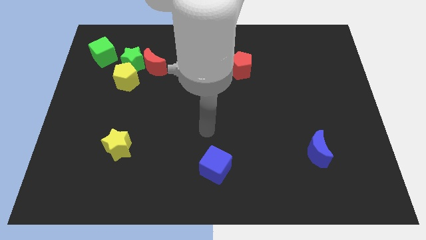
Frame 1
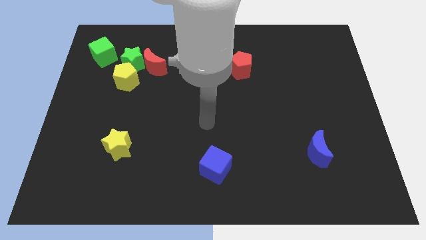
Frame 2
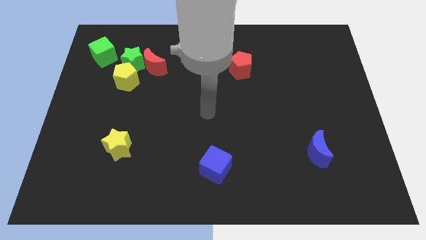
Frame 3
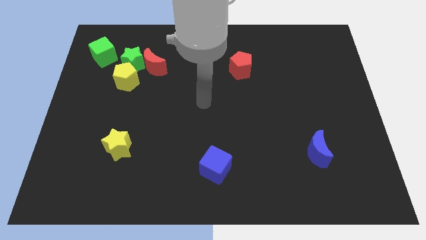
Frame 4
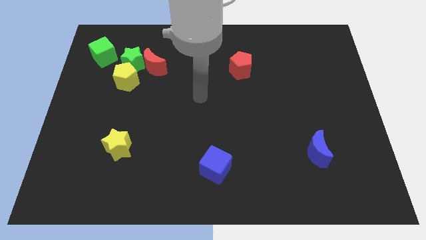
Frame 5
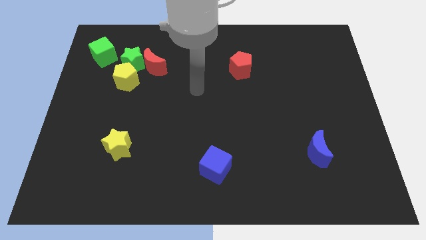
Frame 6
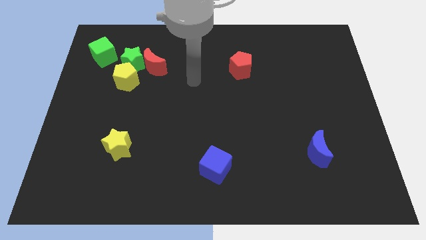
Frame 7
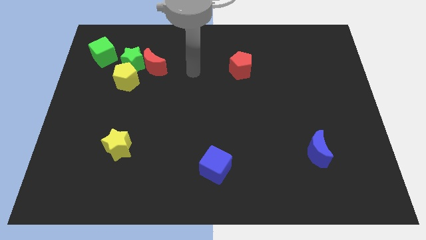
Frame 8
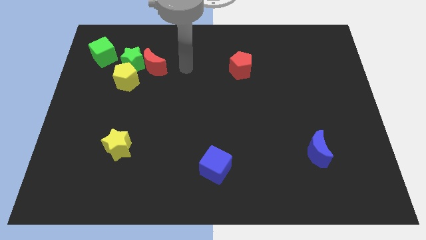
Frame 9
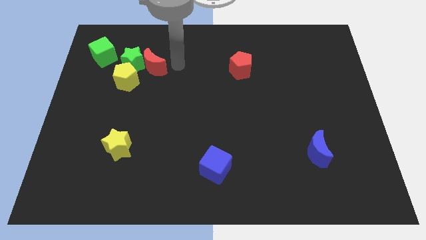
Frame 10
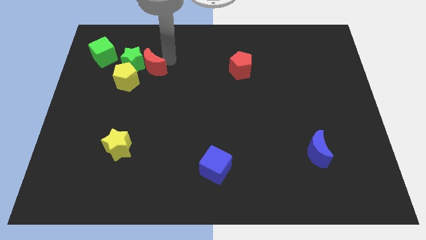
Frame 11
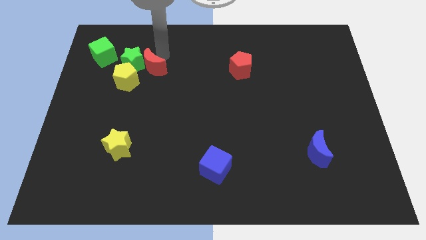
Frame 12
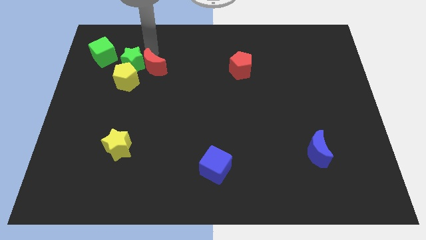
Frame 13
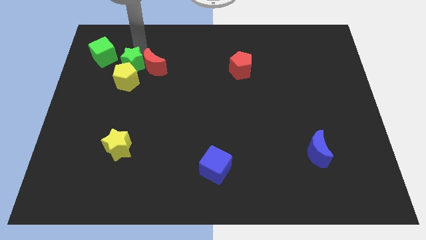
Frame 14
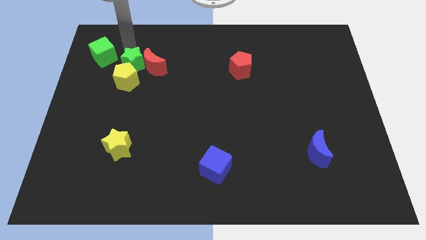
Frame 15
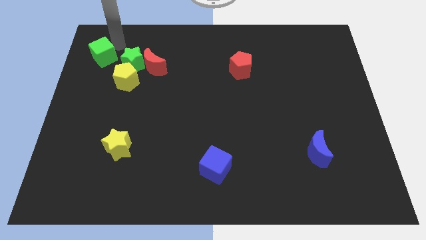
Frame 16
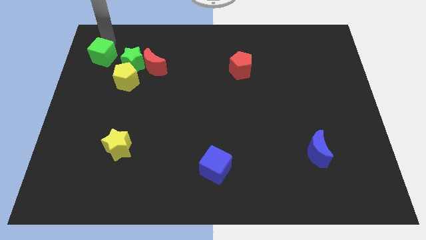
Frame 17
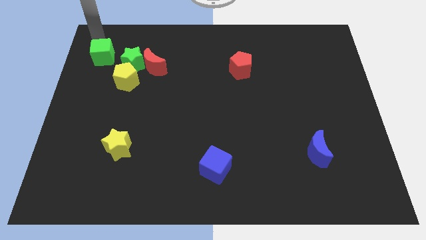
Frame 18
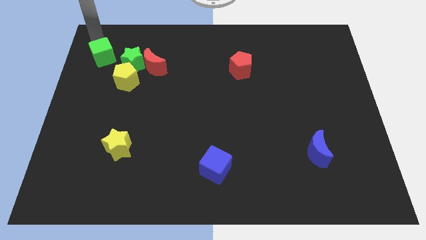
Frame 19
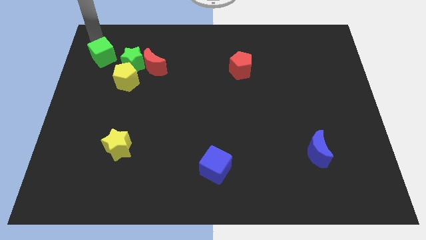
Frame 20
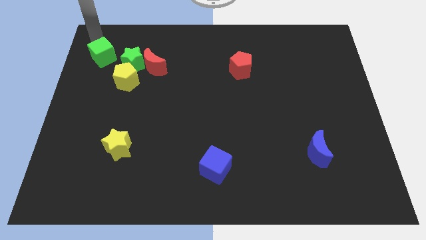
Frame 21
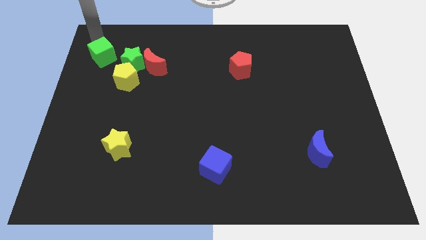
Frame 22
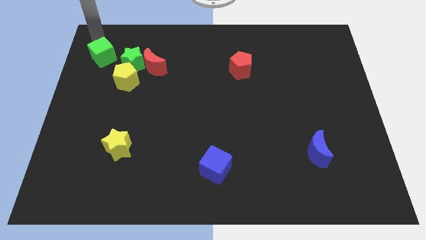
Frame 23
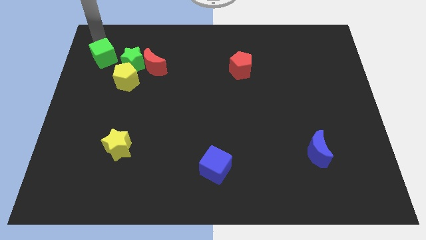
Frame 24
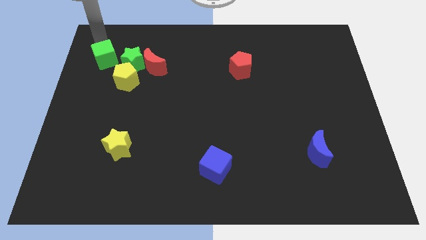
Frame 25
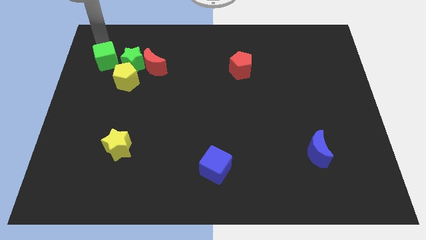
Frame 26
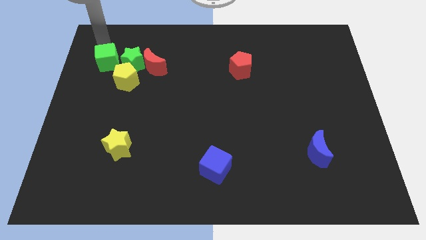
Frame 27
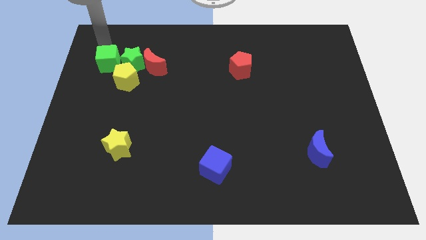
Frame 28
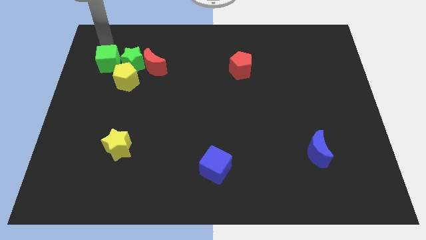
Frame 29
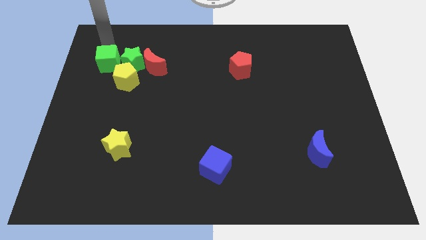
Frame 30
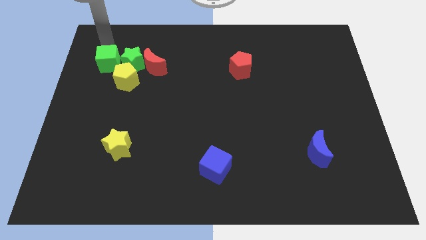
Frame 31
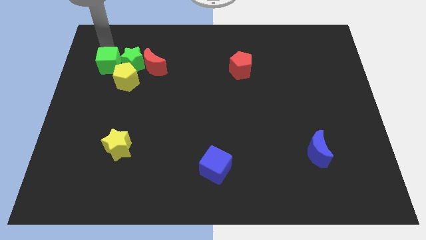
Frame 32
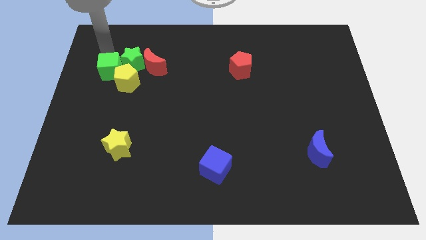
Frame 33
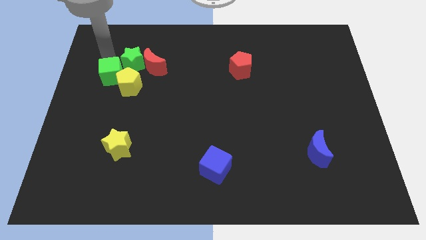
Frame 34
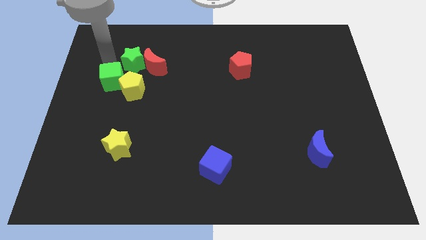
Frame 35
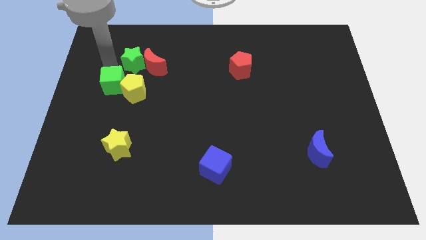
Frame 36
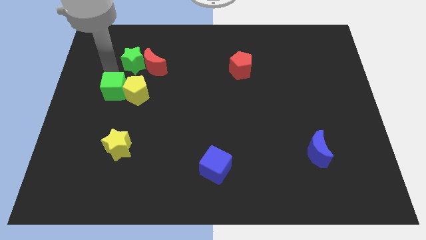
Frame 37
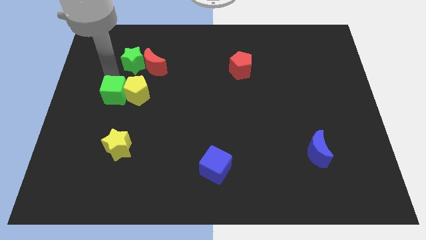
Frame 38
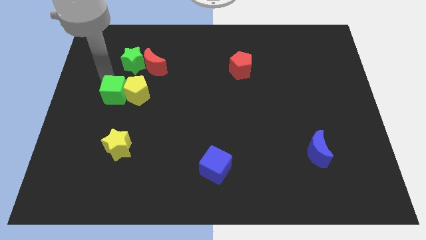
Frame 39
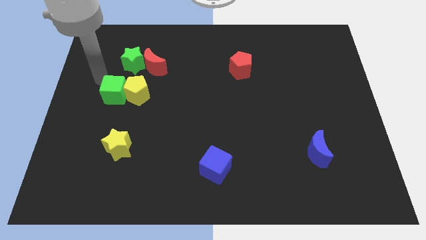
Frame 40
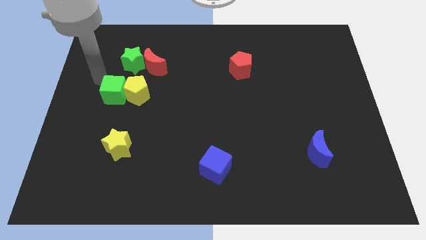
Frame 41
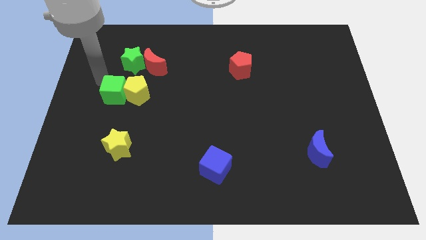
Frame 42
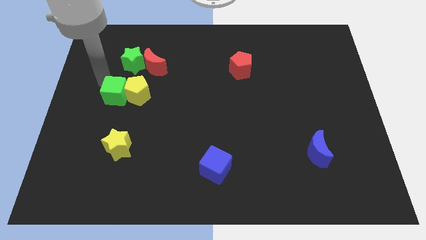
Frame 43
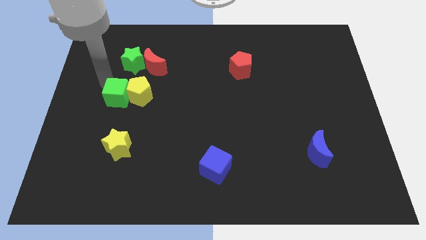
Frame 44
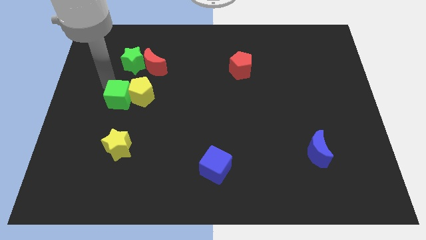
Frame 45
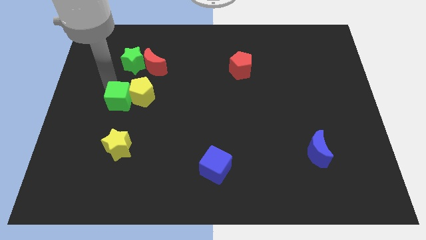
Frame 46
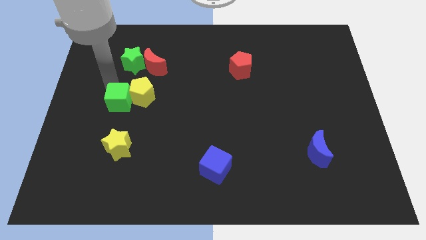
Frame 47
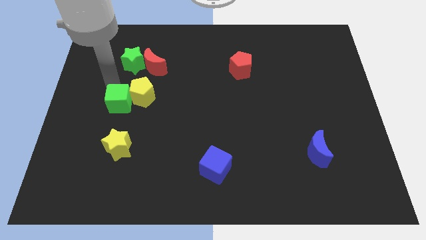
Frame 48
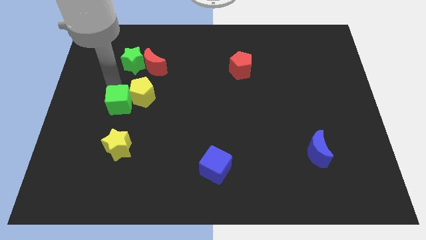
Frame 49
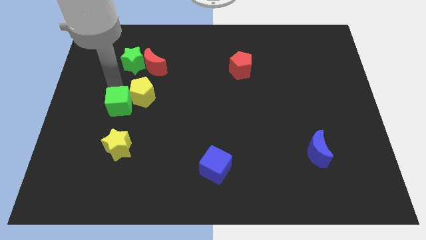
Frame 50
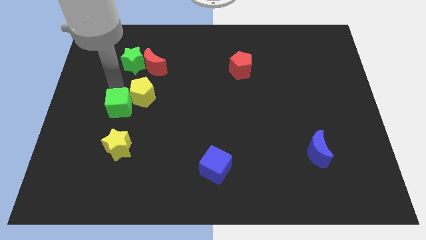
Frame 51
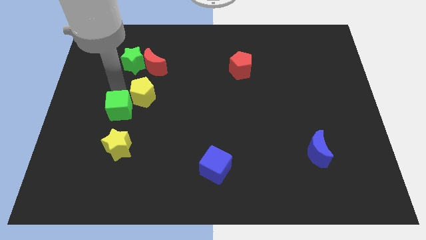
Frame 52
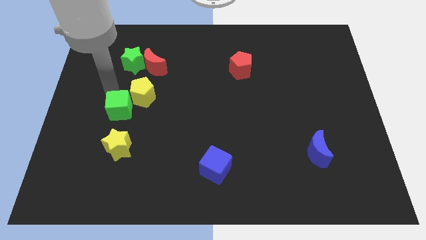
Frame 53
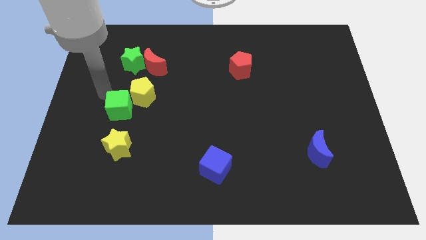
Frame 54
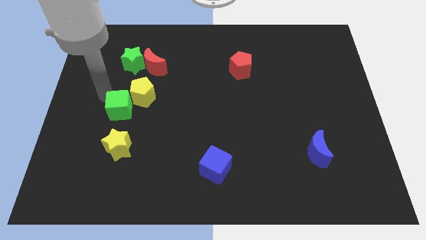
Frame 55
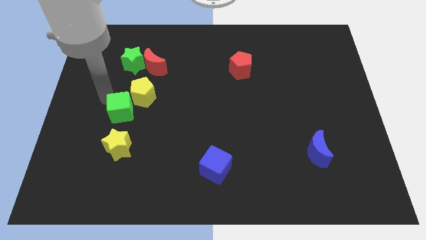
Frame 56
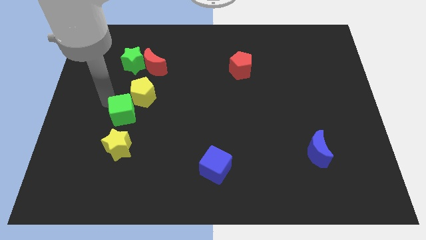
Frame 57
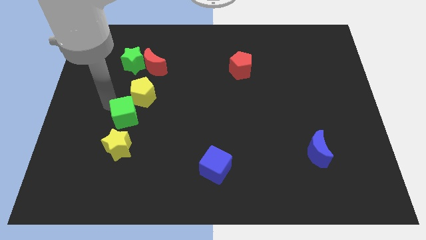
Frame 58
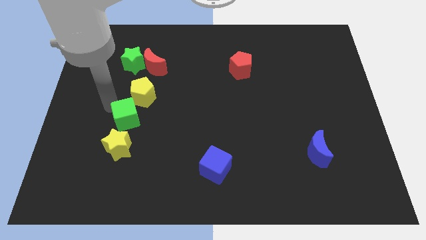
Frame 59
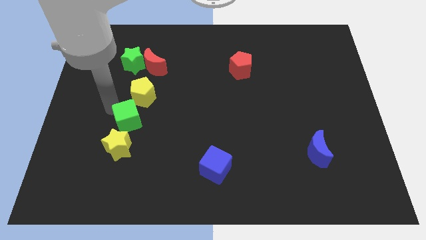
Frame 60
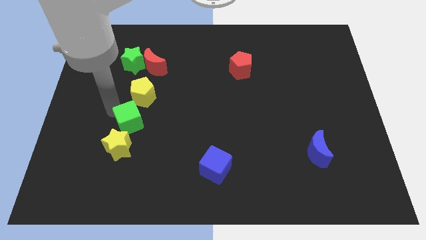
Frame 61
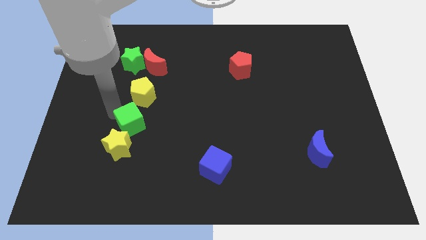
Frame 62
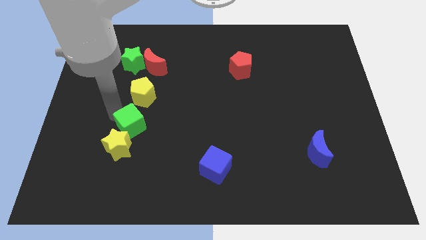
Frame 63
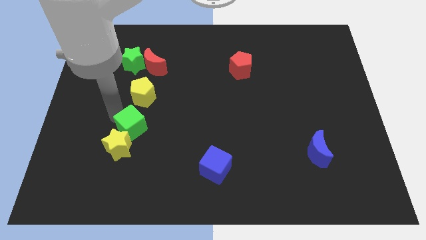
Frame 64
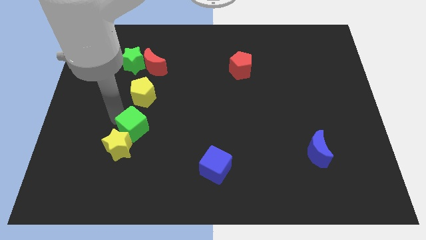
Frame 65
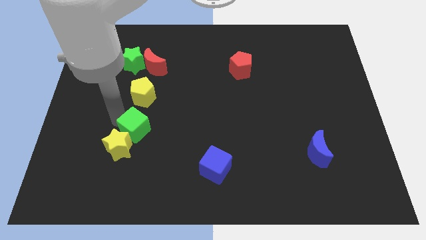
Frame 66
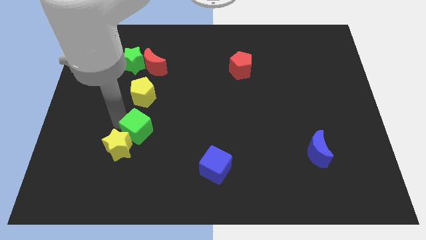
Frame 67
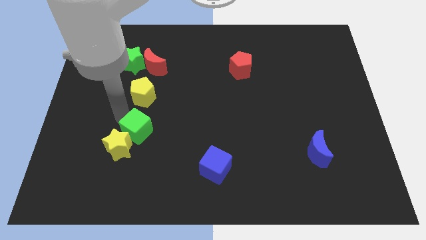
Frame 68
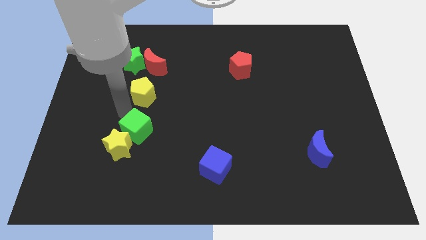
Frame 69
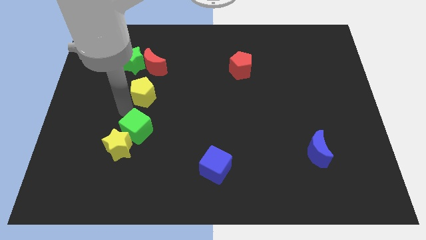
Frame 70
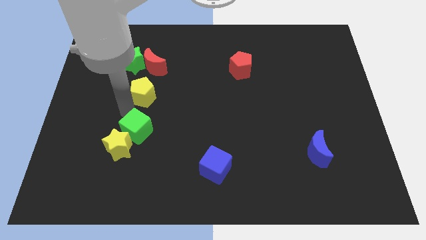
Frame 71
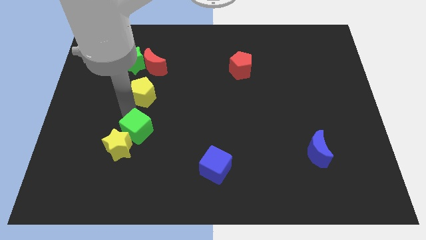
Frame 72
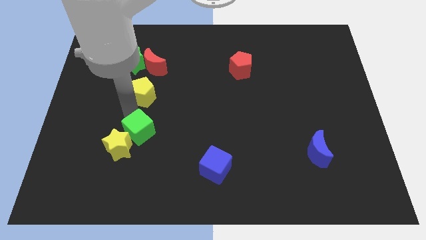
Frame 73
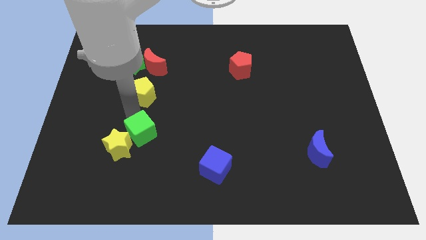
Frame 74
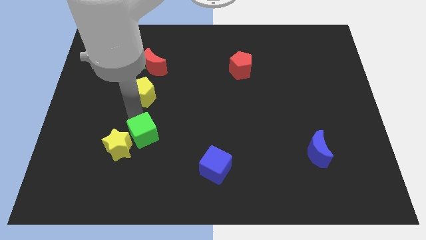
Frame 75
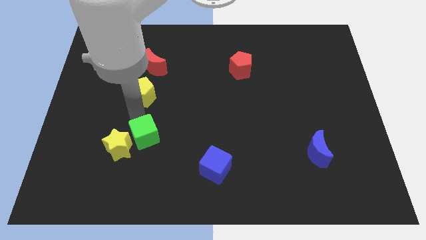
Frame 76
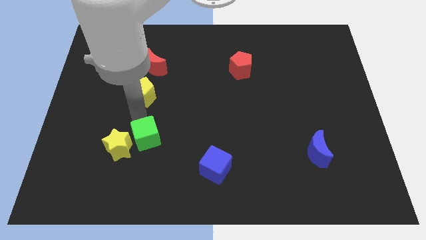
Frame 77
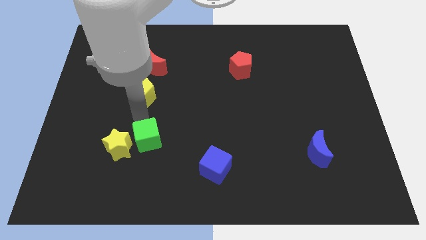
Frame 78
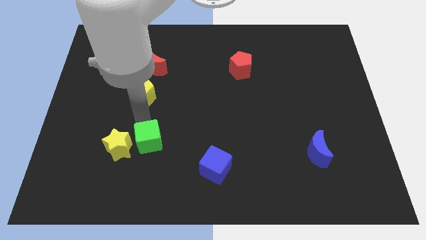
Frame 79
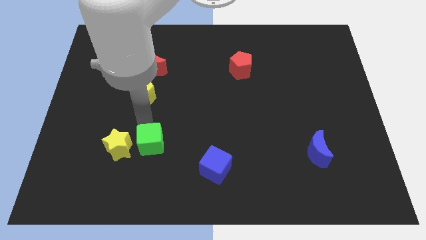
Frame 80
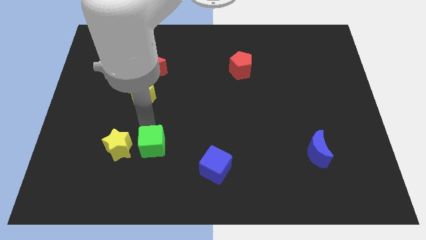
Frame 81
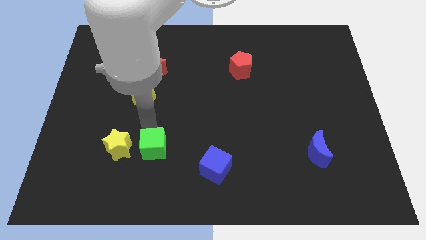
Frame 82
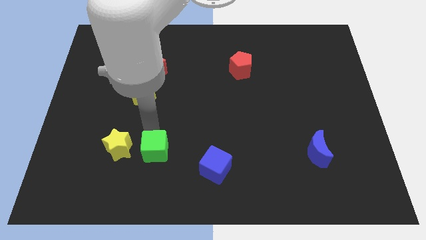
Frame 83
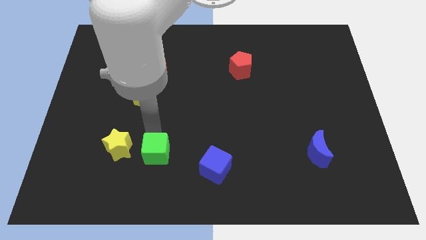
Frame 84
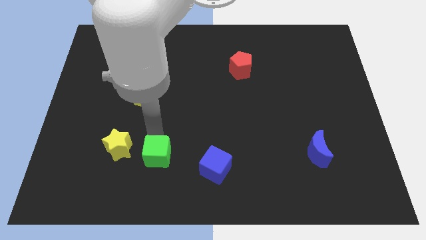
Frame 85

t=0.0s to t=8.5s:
put the green cube to the bottom right of the yellow star
